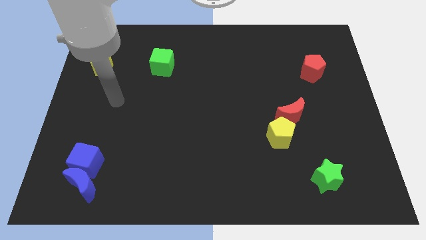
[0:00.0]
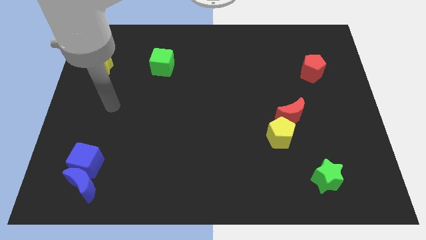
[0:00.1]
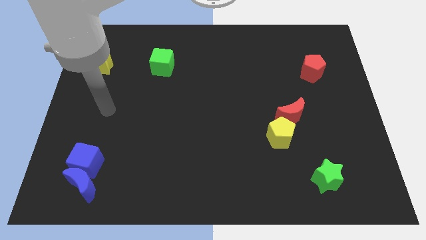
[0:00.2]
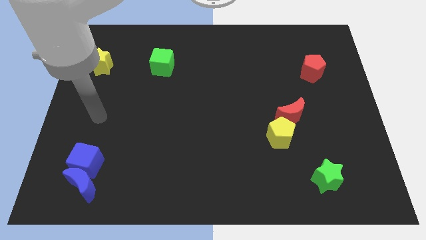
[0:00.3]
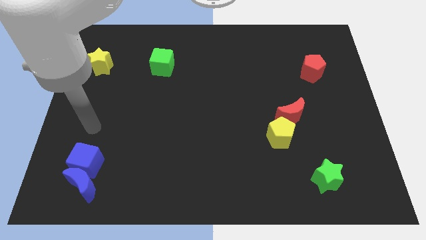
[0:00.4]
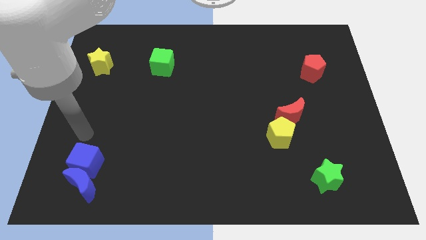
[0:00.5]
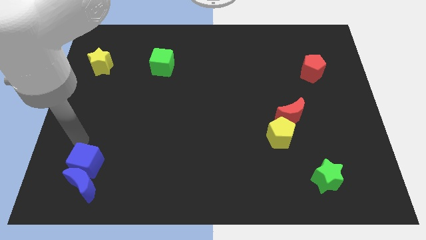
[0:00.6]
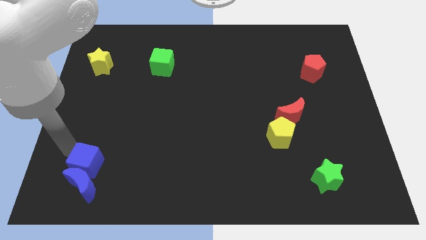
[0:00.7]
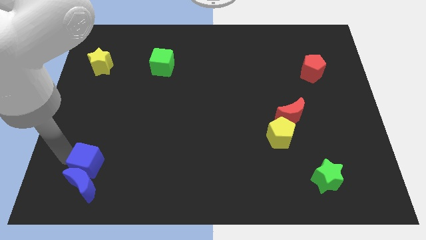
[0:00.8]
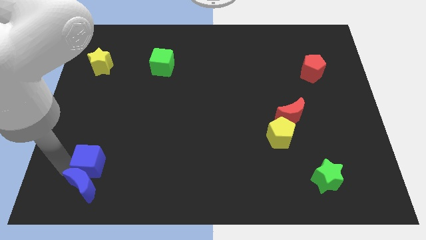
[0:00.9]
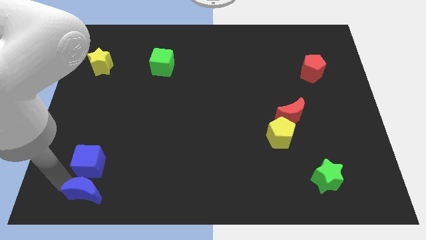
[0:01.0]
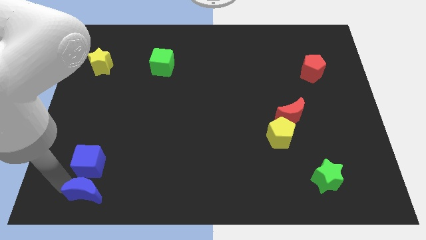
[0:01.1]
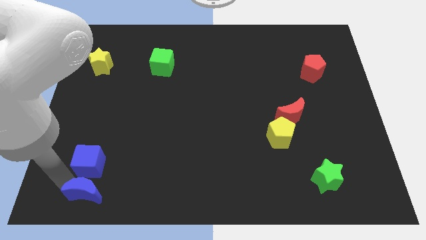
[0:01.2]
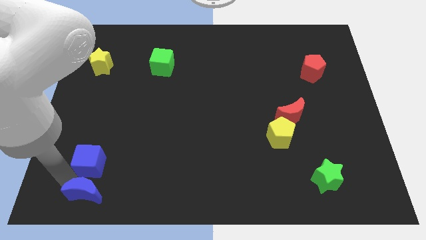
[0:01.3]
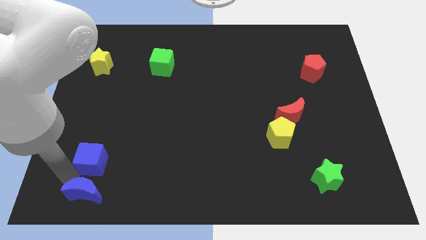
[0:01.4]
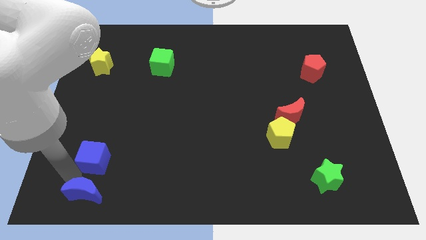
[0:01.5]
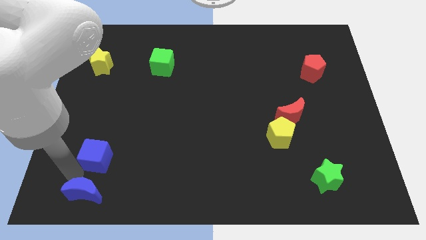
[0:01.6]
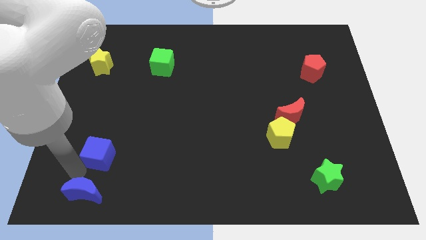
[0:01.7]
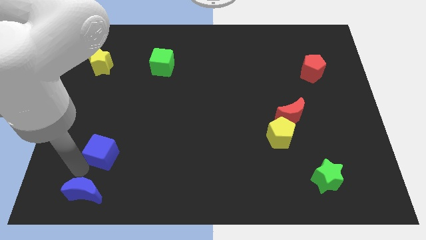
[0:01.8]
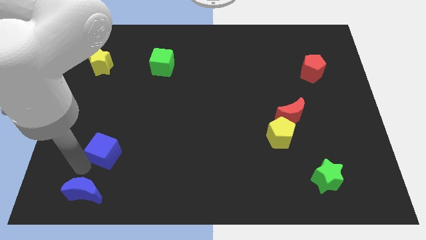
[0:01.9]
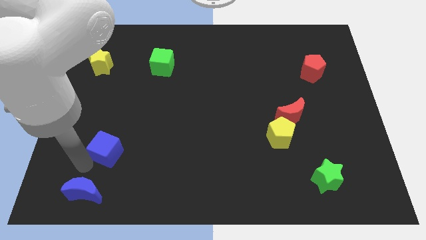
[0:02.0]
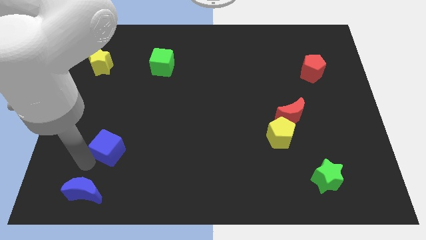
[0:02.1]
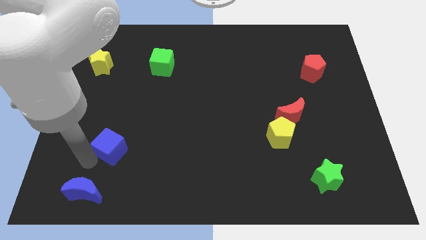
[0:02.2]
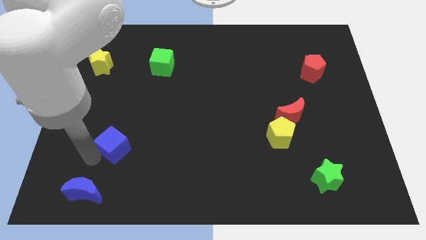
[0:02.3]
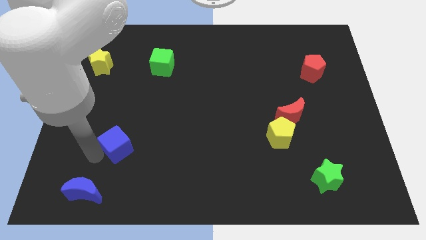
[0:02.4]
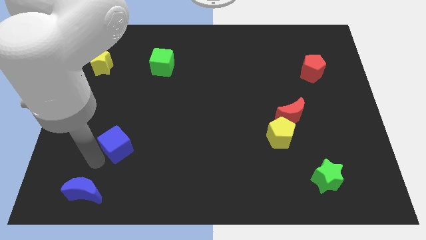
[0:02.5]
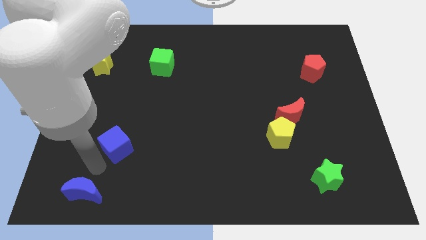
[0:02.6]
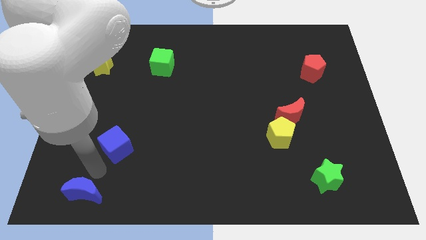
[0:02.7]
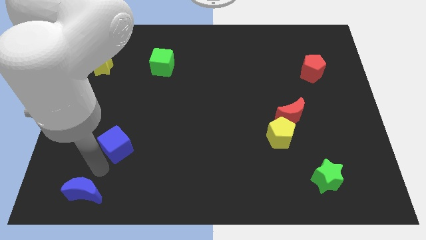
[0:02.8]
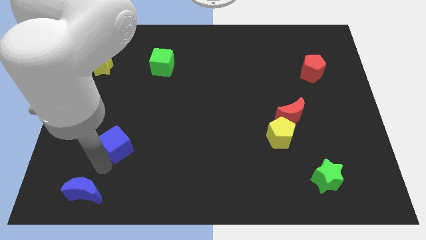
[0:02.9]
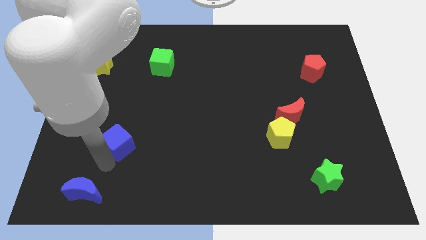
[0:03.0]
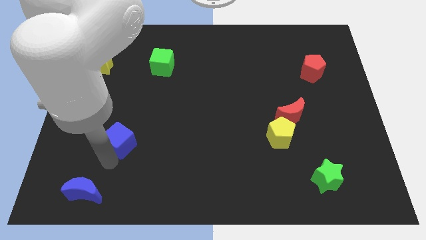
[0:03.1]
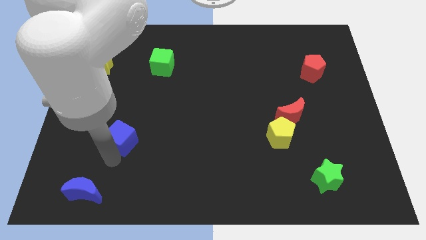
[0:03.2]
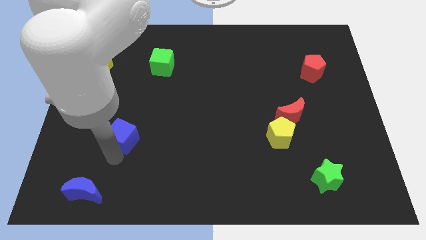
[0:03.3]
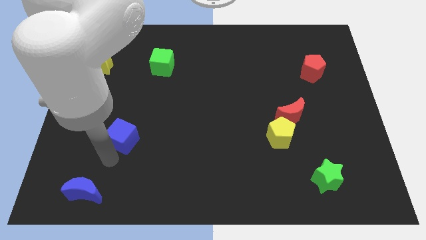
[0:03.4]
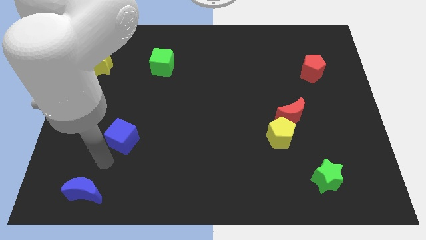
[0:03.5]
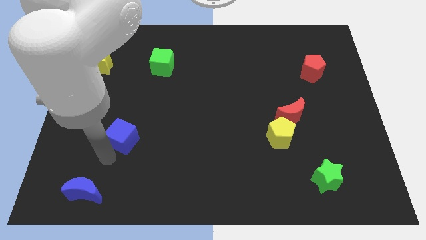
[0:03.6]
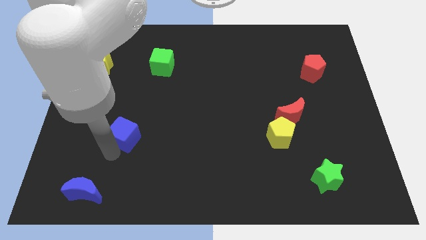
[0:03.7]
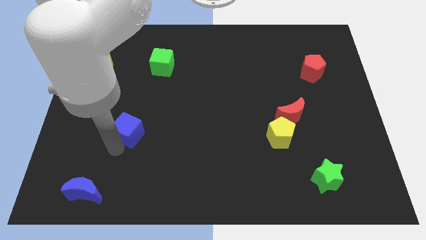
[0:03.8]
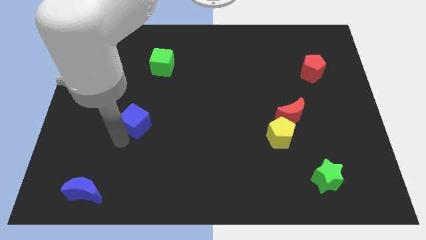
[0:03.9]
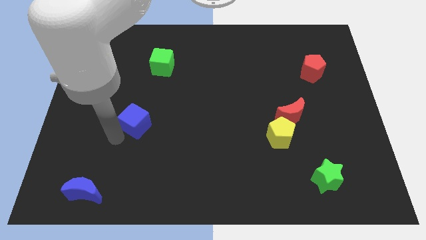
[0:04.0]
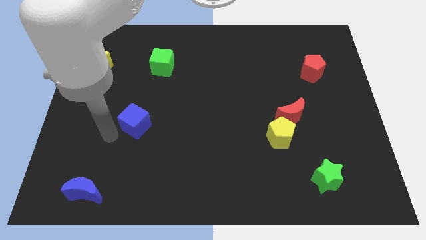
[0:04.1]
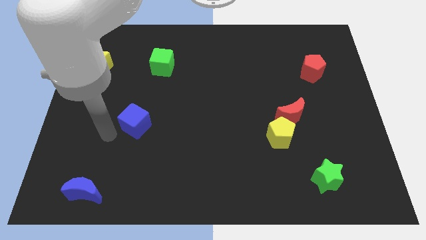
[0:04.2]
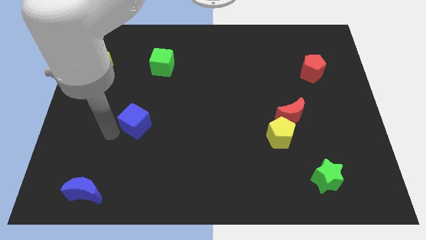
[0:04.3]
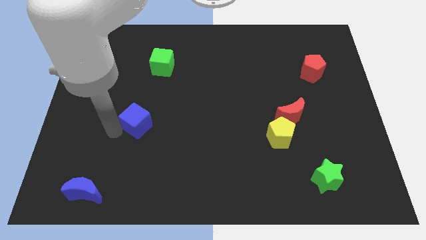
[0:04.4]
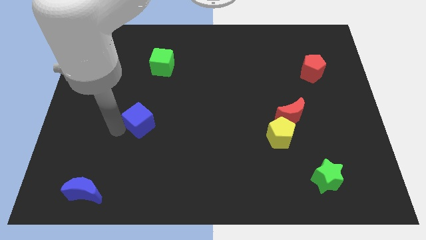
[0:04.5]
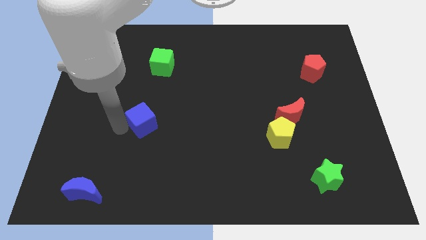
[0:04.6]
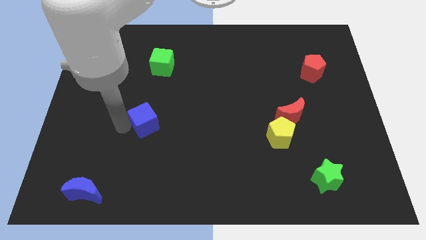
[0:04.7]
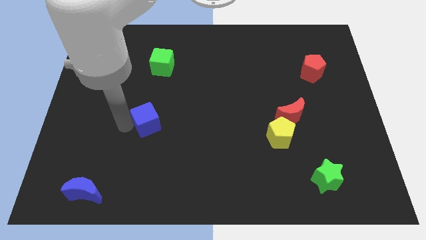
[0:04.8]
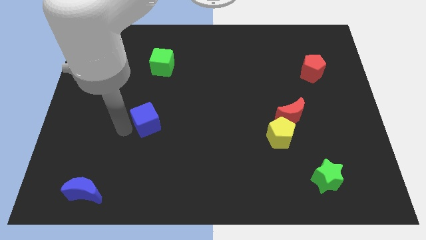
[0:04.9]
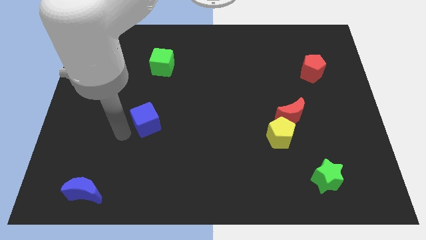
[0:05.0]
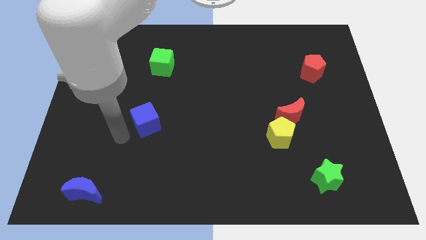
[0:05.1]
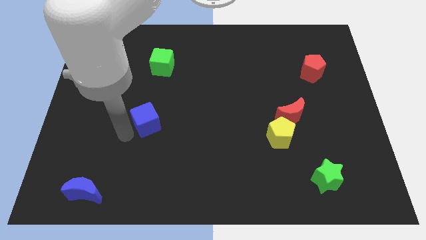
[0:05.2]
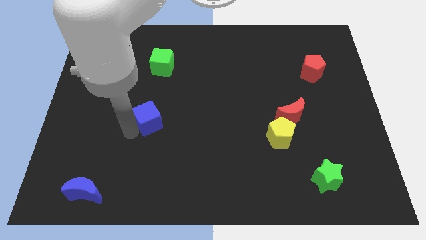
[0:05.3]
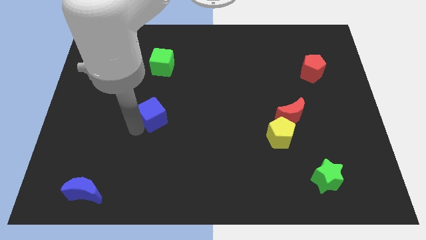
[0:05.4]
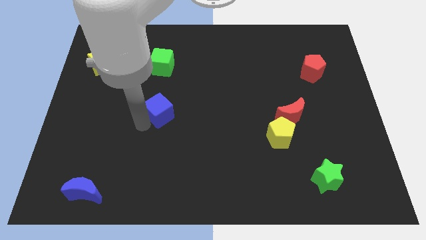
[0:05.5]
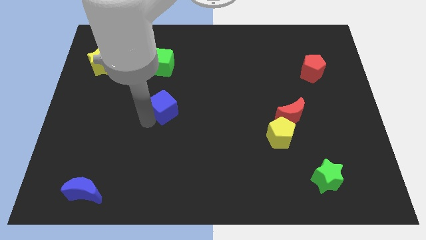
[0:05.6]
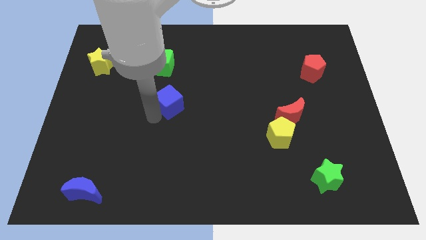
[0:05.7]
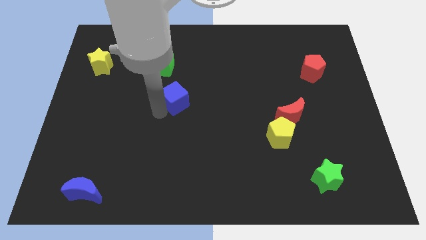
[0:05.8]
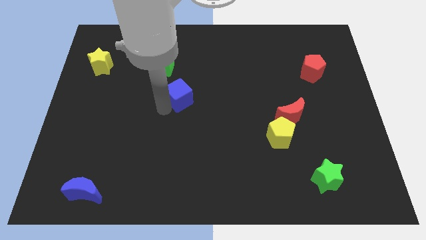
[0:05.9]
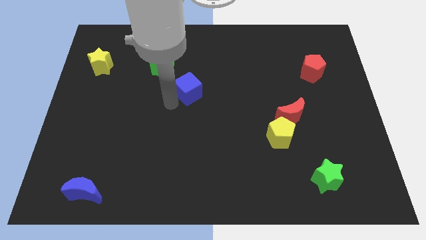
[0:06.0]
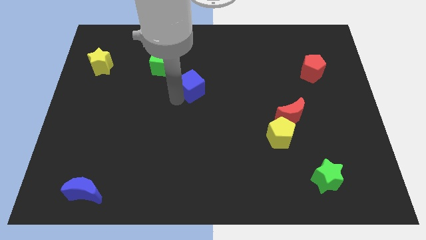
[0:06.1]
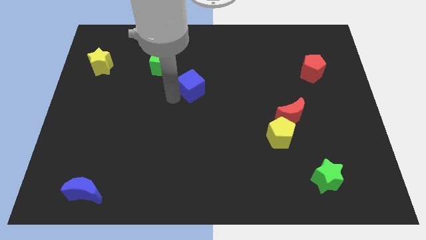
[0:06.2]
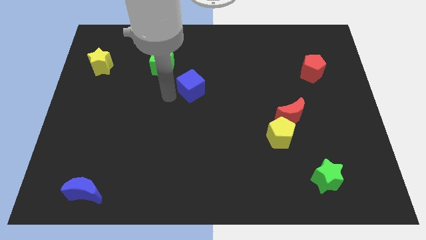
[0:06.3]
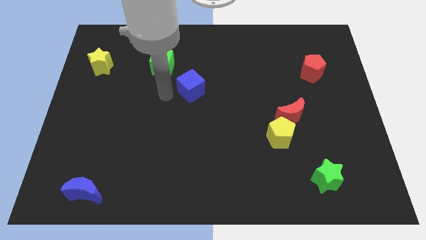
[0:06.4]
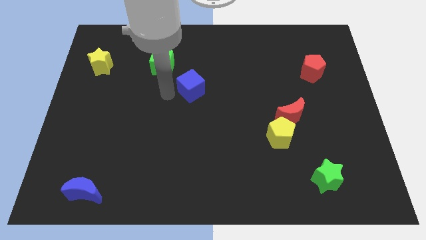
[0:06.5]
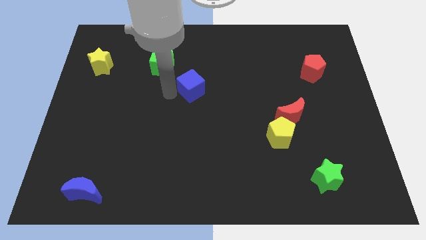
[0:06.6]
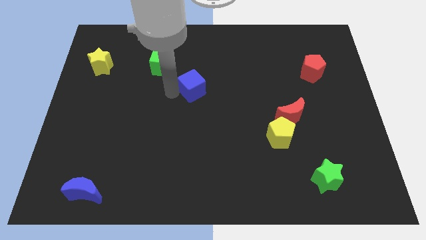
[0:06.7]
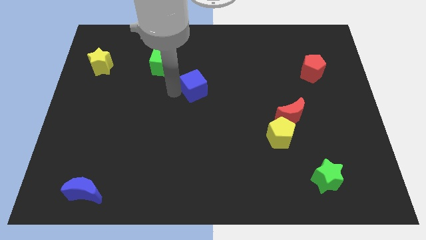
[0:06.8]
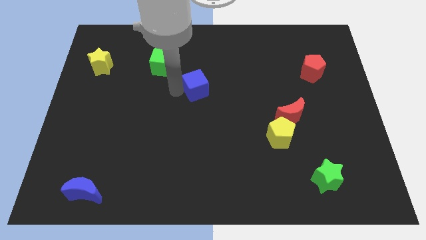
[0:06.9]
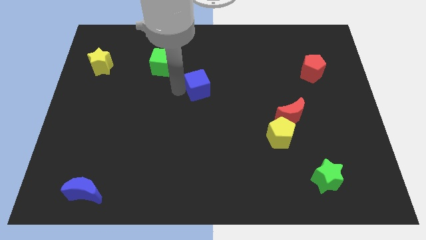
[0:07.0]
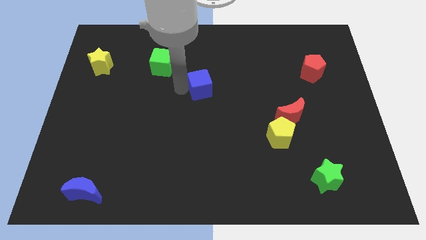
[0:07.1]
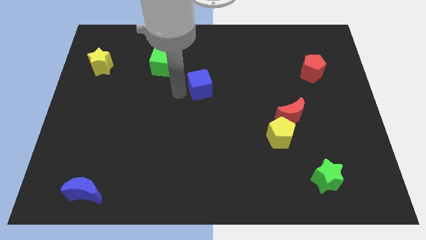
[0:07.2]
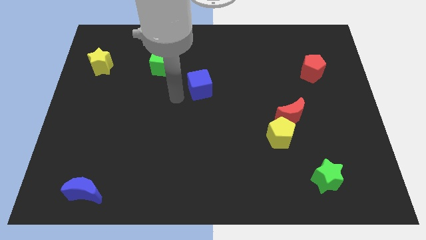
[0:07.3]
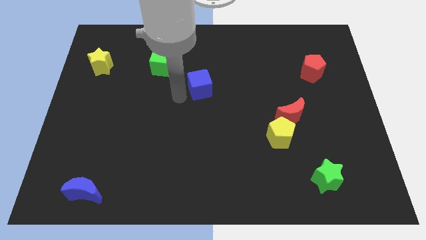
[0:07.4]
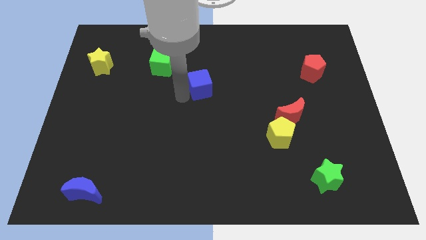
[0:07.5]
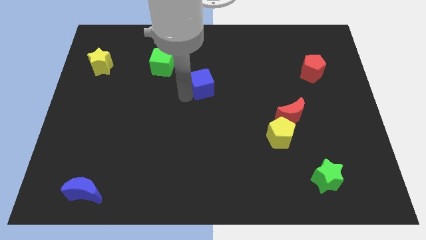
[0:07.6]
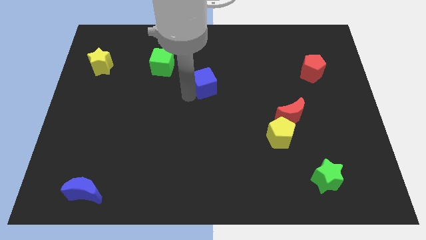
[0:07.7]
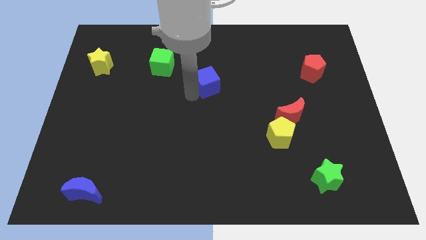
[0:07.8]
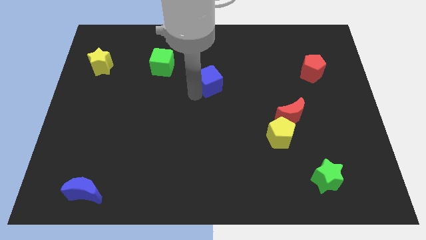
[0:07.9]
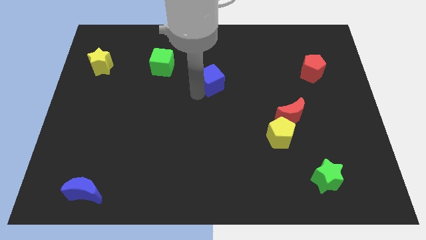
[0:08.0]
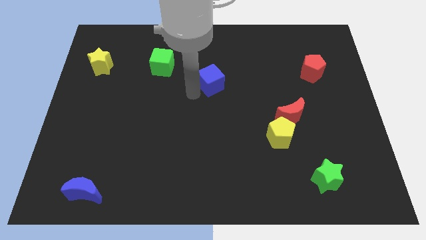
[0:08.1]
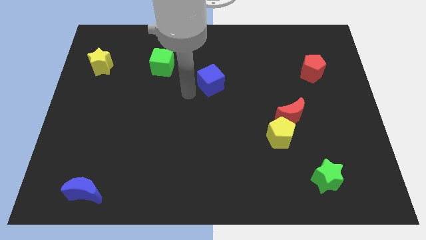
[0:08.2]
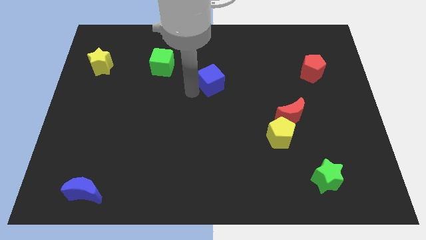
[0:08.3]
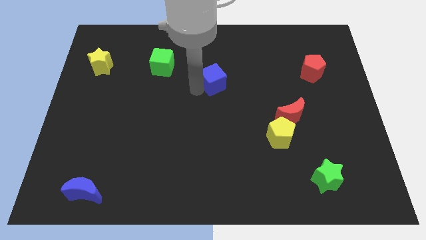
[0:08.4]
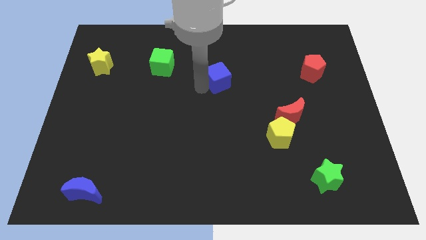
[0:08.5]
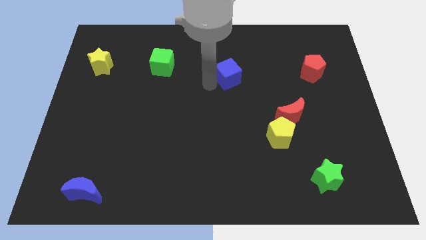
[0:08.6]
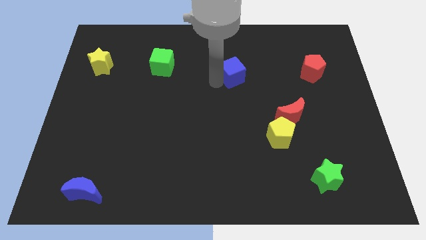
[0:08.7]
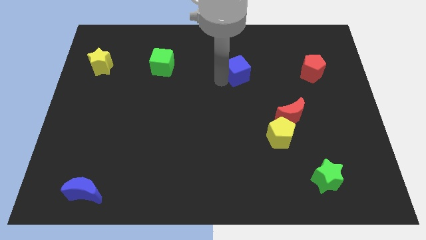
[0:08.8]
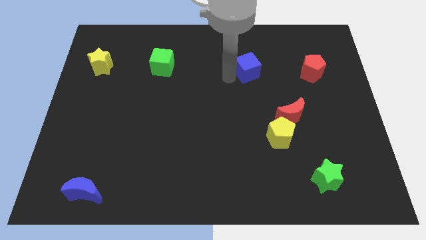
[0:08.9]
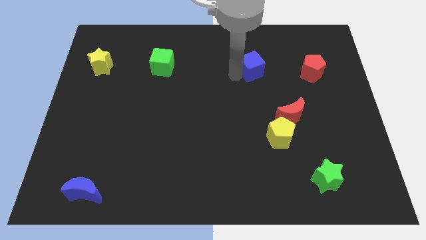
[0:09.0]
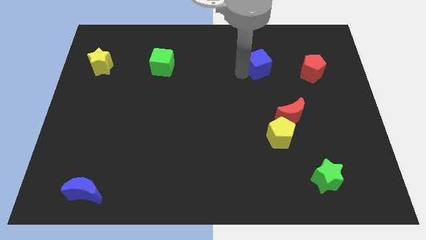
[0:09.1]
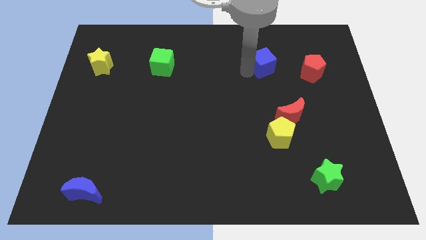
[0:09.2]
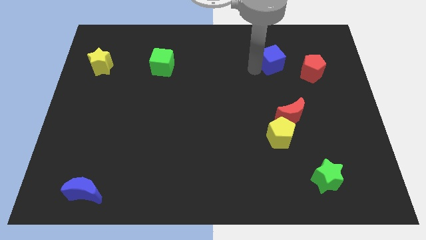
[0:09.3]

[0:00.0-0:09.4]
slide the blue cube diagonally up and to the left of the red pentagon
